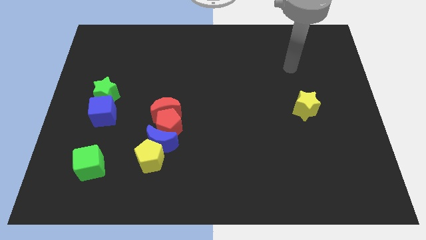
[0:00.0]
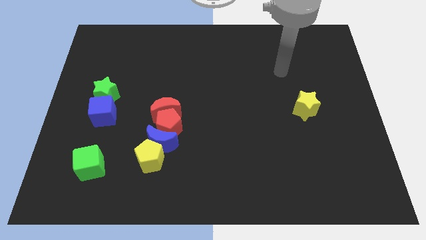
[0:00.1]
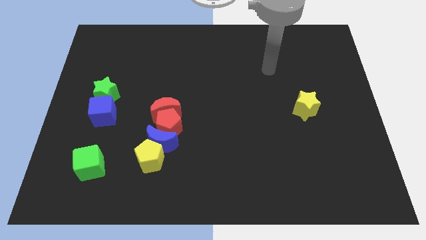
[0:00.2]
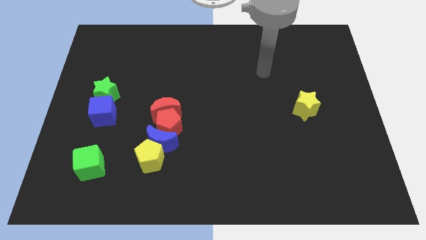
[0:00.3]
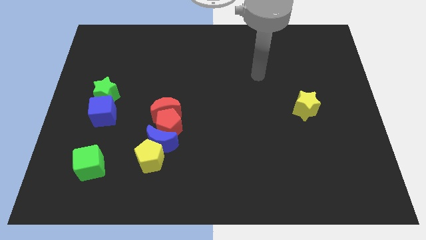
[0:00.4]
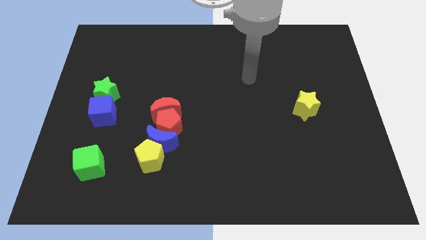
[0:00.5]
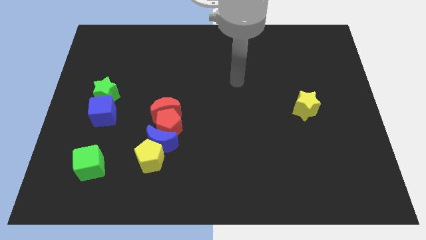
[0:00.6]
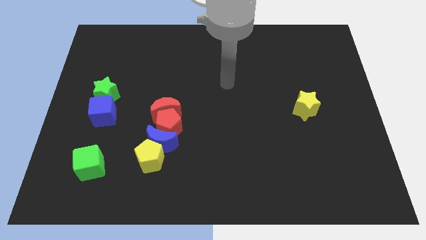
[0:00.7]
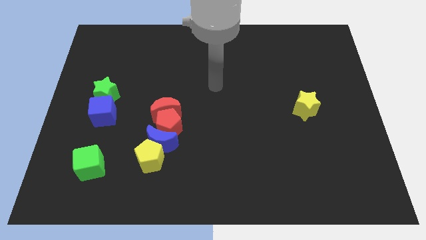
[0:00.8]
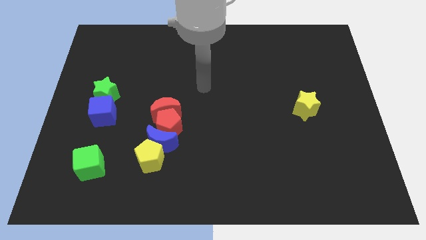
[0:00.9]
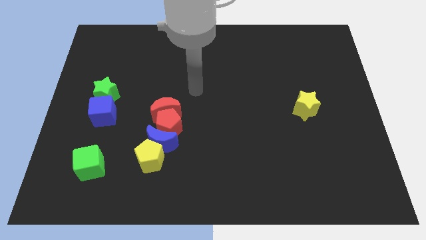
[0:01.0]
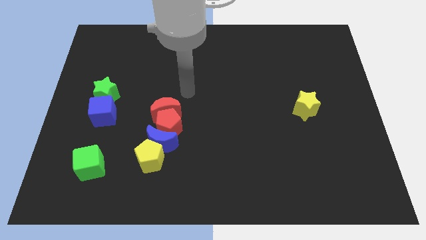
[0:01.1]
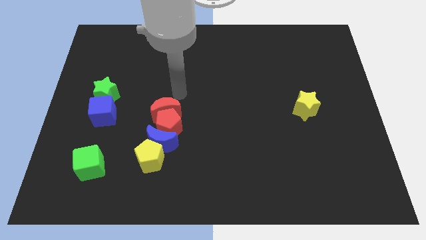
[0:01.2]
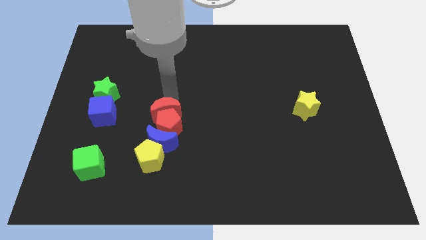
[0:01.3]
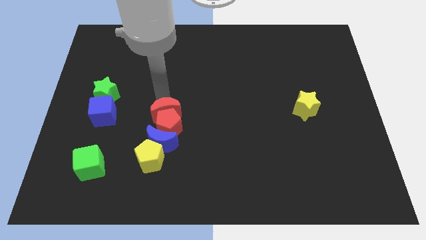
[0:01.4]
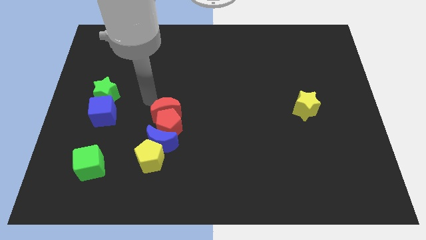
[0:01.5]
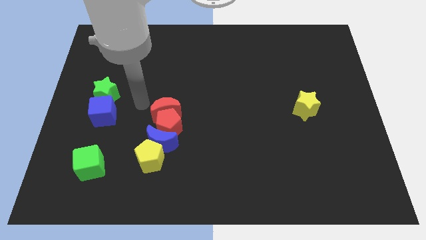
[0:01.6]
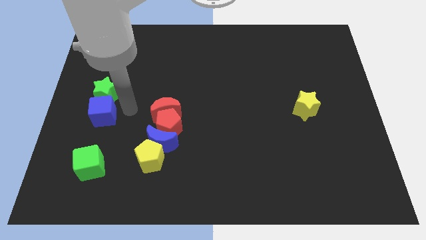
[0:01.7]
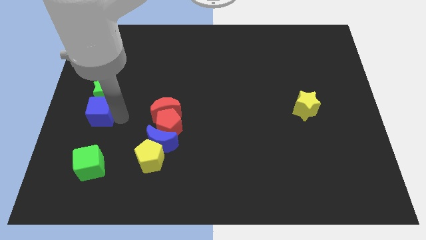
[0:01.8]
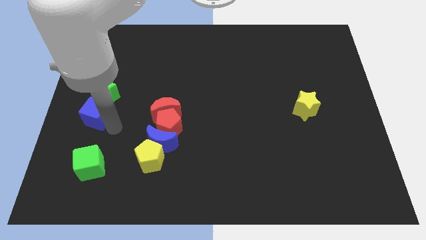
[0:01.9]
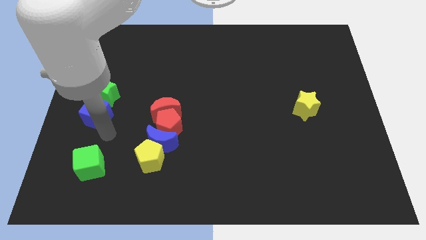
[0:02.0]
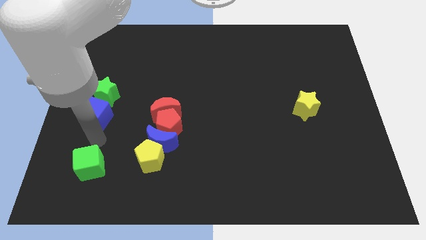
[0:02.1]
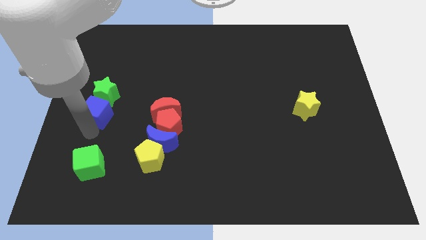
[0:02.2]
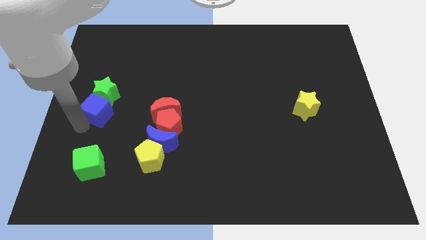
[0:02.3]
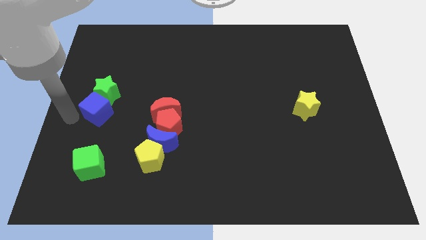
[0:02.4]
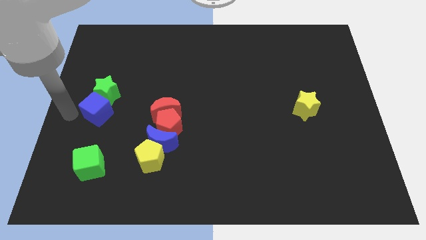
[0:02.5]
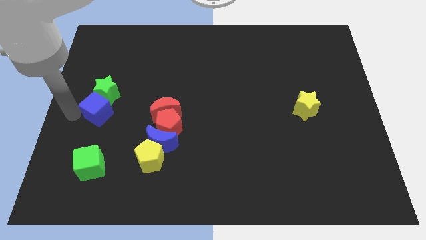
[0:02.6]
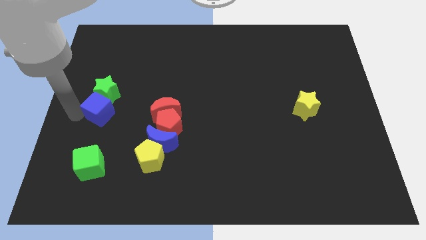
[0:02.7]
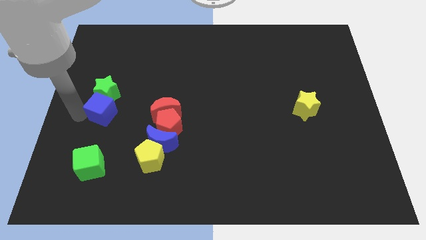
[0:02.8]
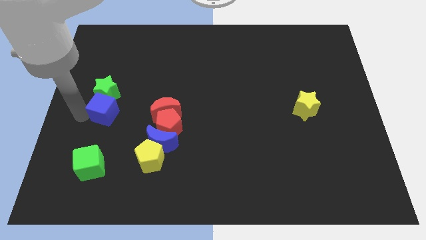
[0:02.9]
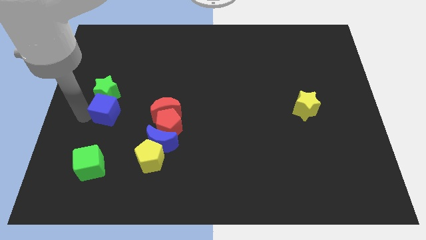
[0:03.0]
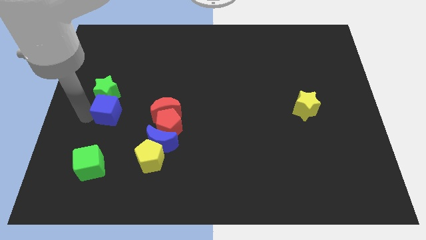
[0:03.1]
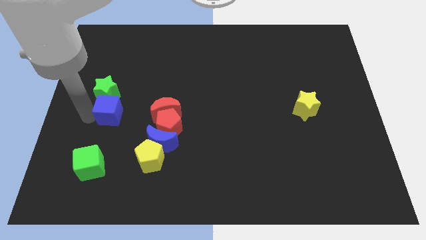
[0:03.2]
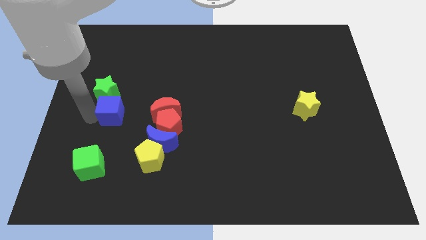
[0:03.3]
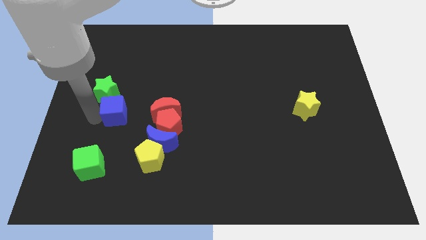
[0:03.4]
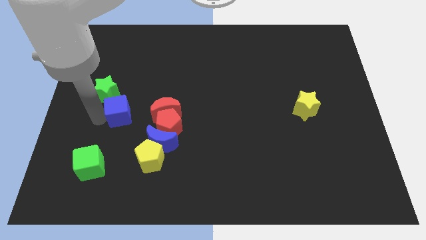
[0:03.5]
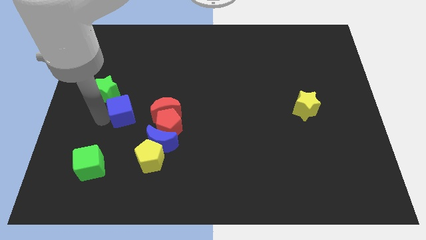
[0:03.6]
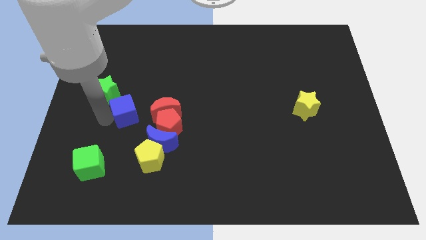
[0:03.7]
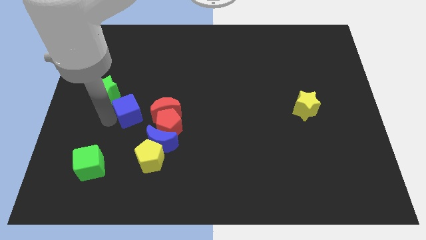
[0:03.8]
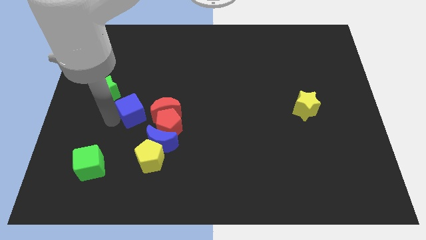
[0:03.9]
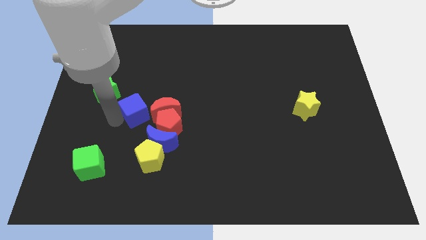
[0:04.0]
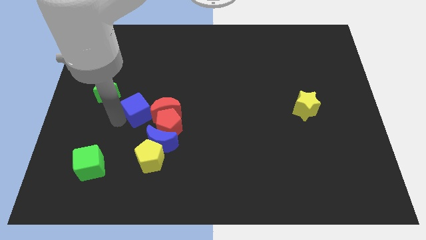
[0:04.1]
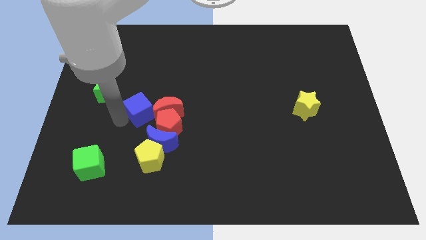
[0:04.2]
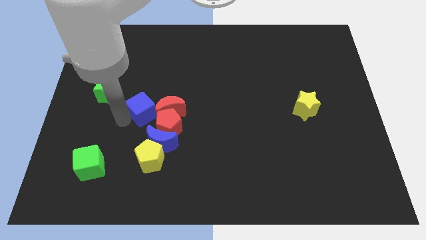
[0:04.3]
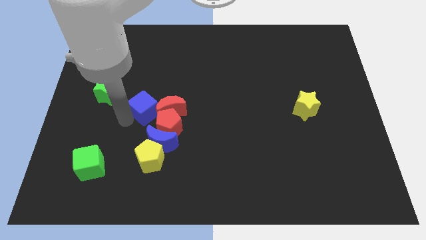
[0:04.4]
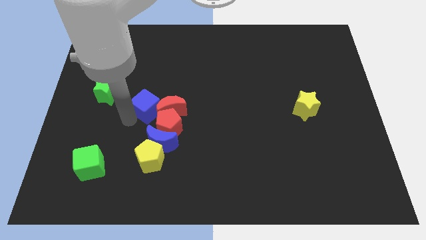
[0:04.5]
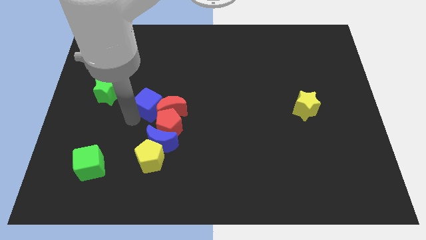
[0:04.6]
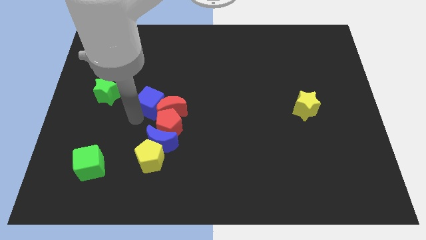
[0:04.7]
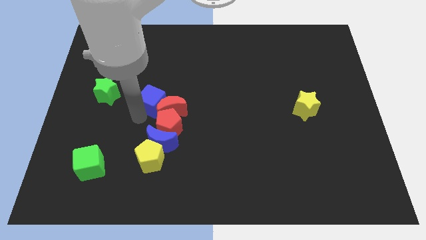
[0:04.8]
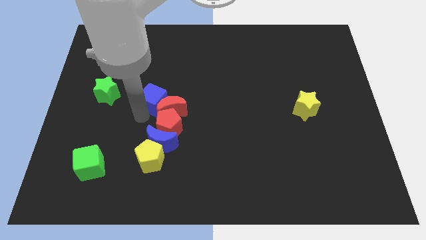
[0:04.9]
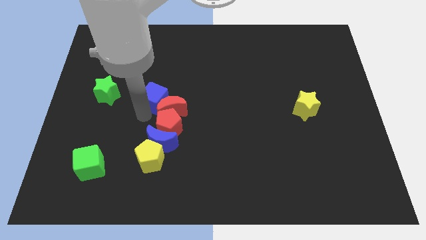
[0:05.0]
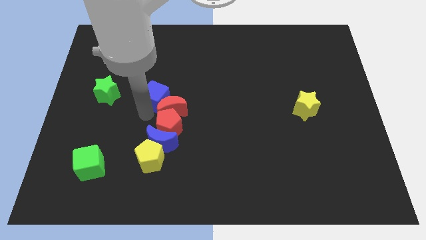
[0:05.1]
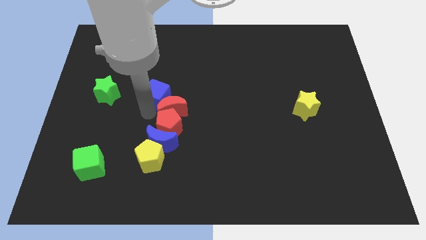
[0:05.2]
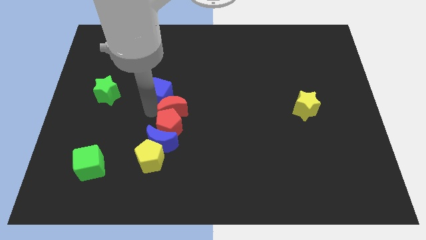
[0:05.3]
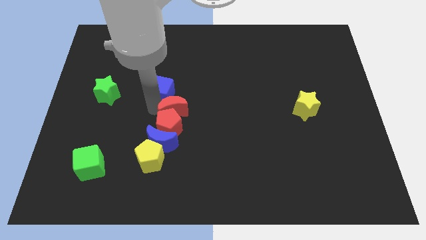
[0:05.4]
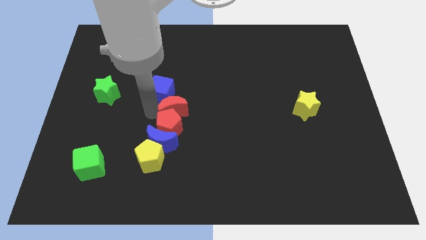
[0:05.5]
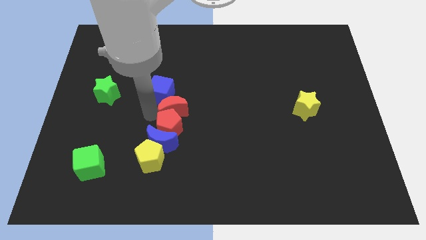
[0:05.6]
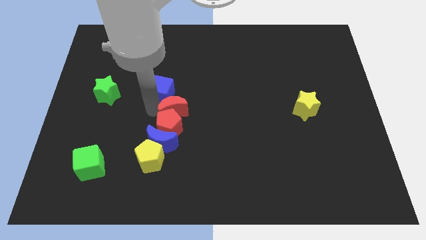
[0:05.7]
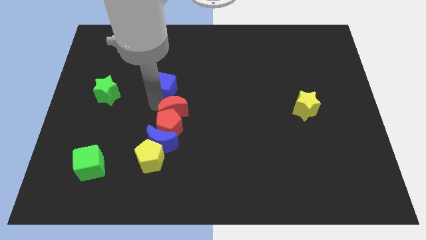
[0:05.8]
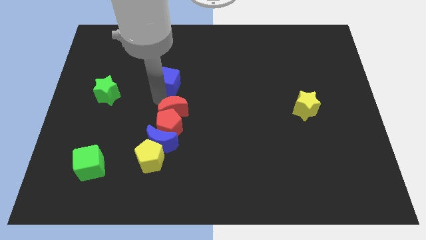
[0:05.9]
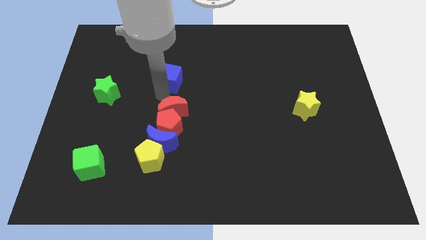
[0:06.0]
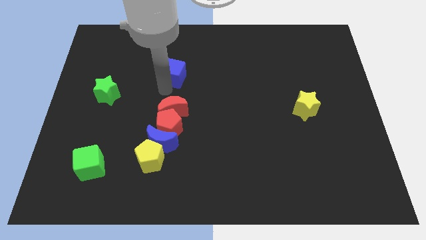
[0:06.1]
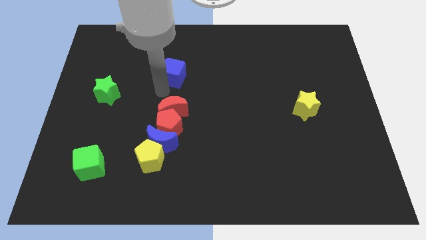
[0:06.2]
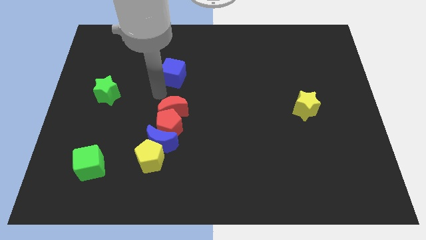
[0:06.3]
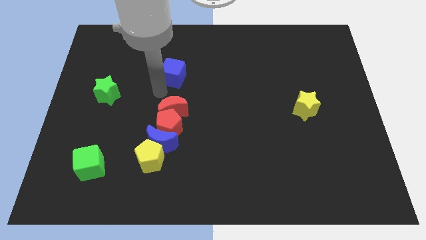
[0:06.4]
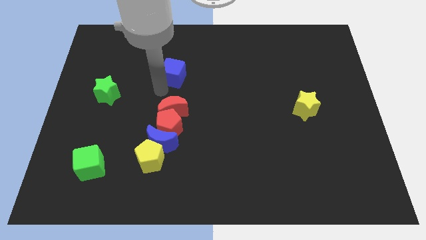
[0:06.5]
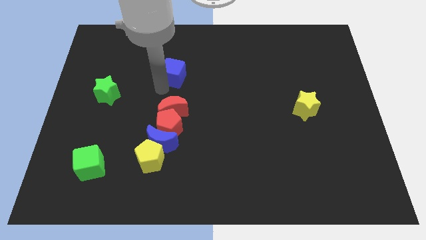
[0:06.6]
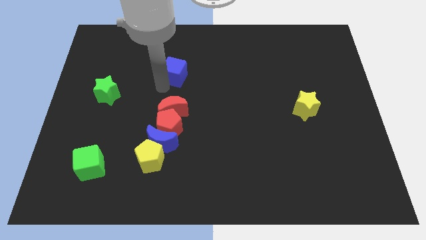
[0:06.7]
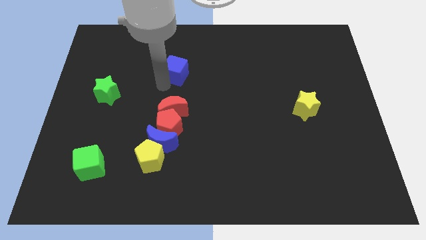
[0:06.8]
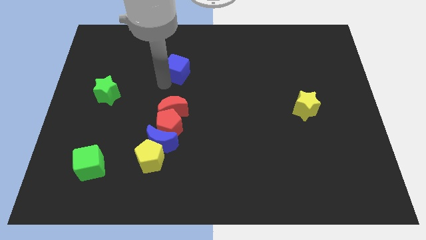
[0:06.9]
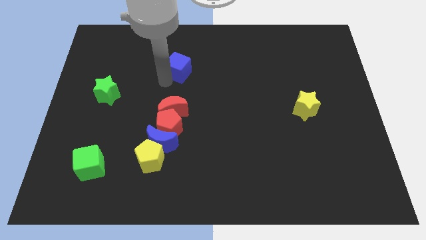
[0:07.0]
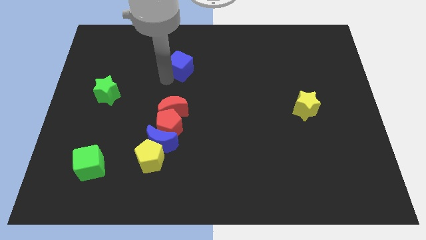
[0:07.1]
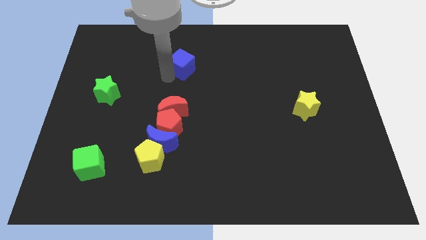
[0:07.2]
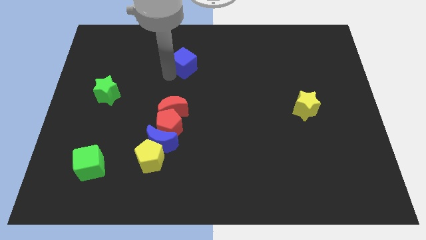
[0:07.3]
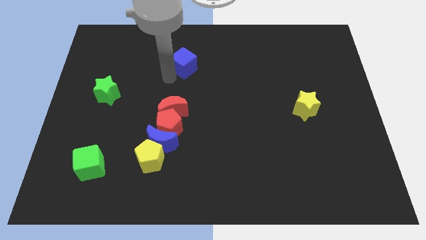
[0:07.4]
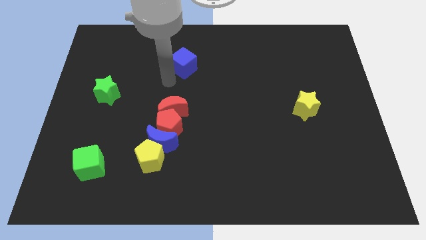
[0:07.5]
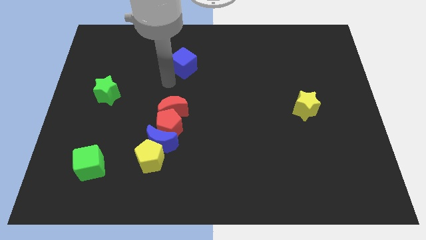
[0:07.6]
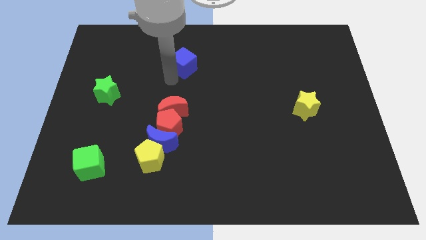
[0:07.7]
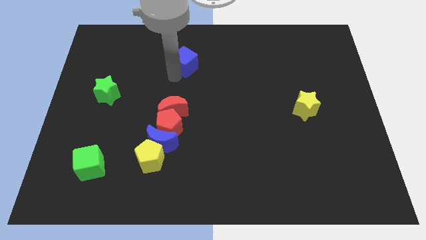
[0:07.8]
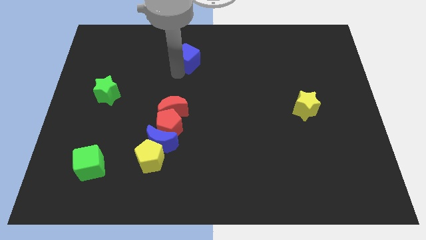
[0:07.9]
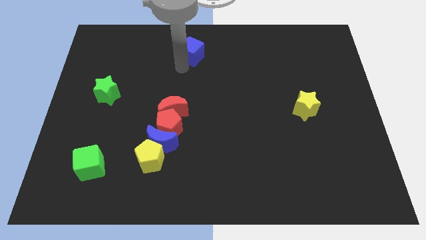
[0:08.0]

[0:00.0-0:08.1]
move the blue cube to the top side
